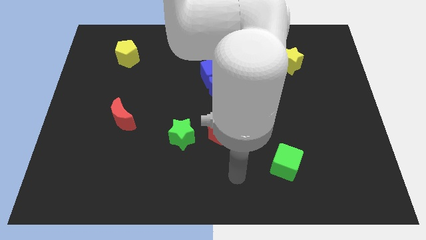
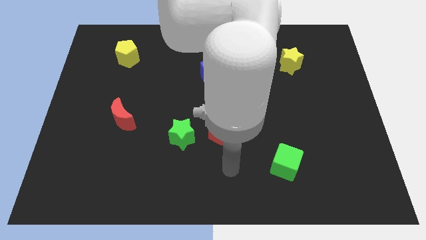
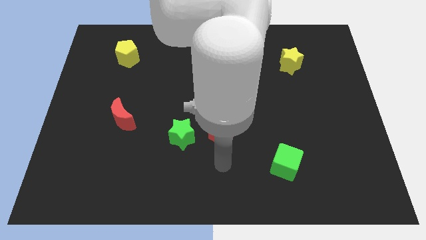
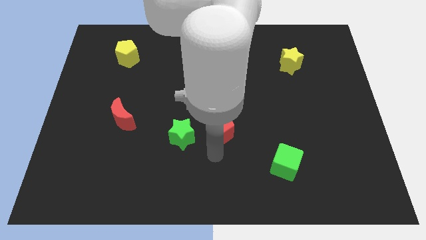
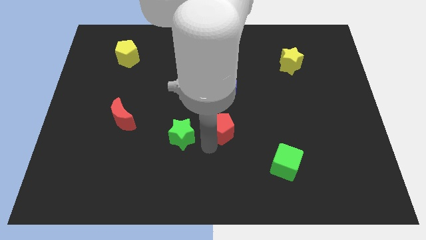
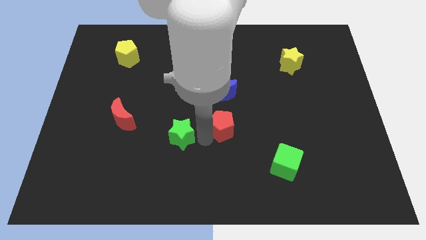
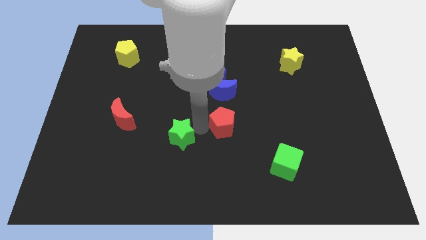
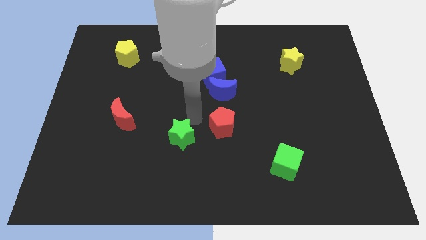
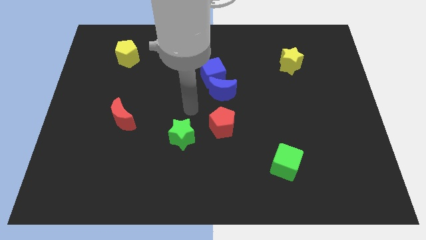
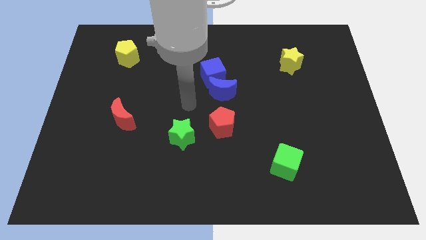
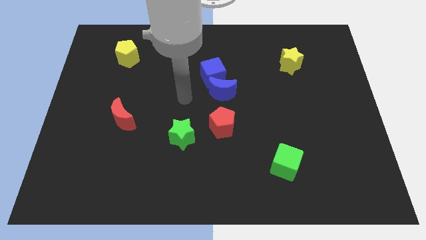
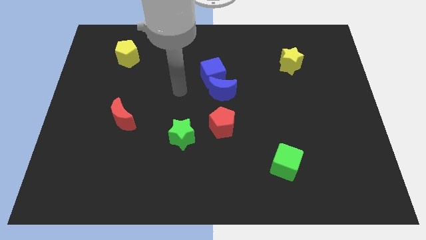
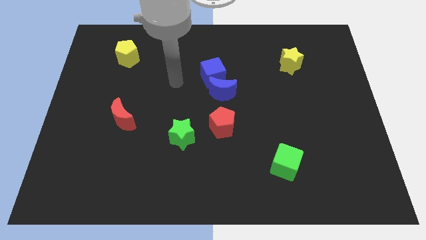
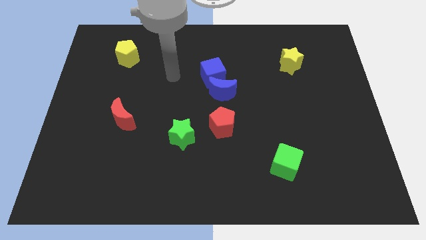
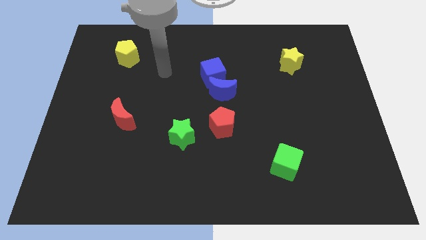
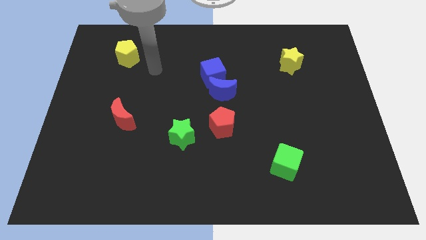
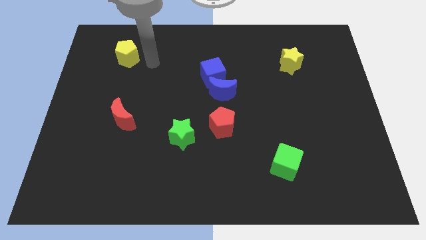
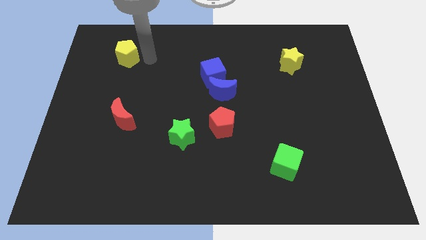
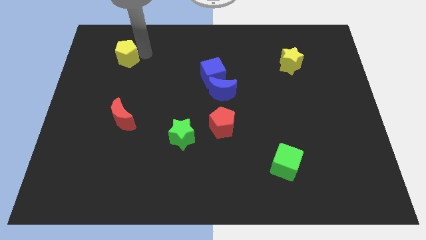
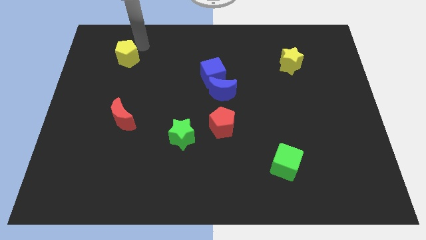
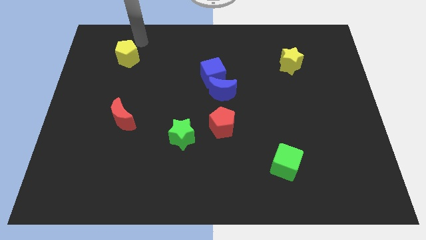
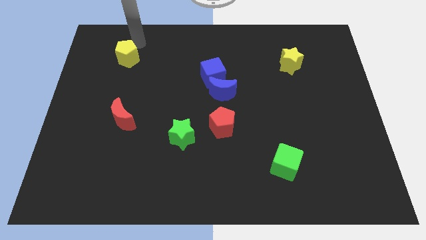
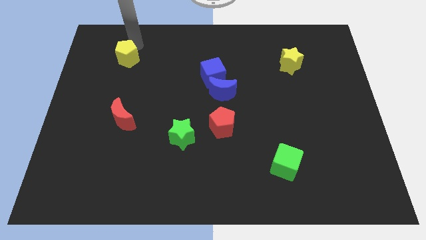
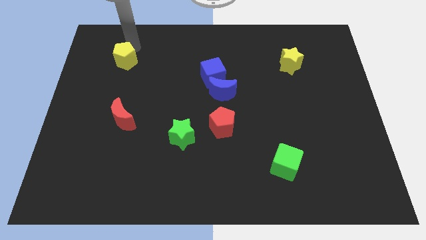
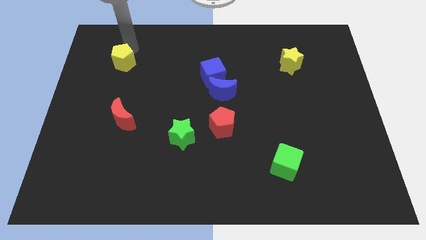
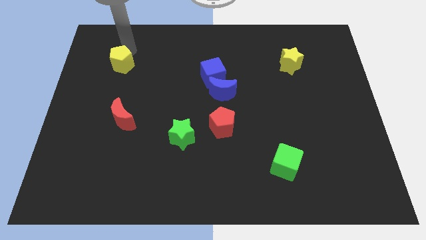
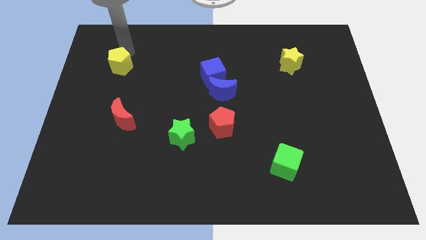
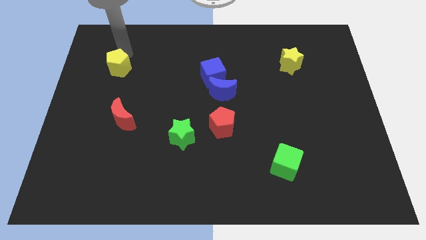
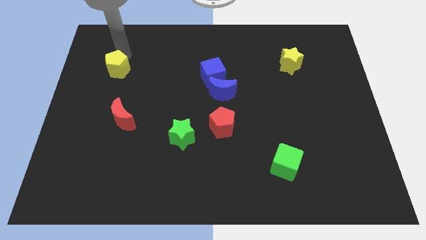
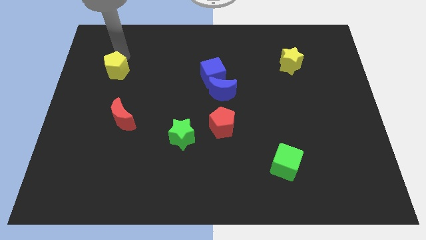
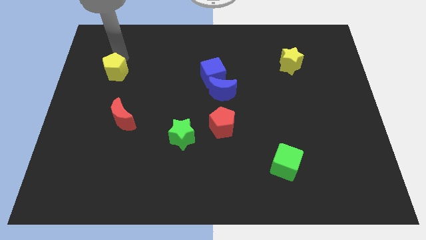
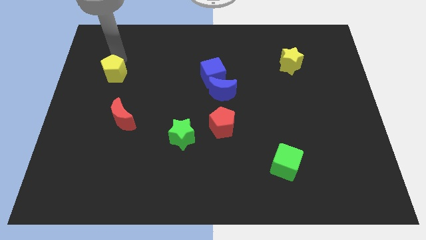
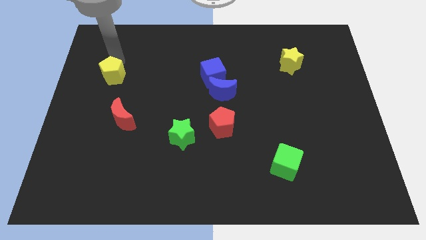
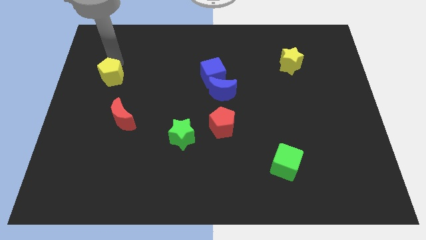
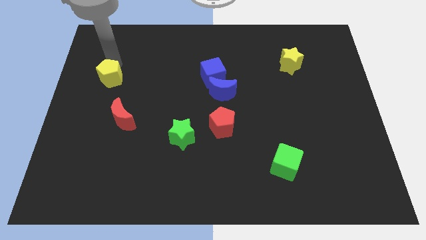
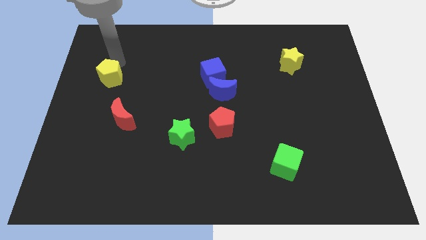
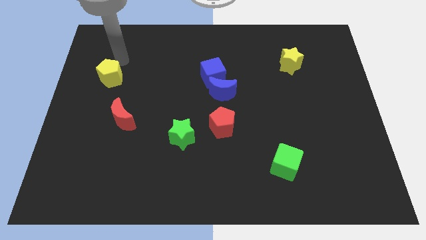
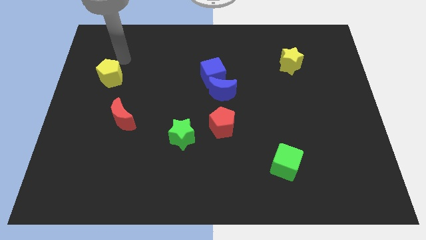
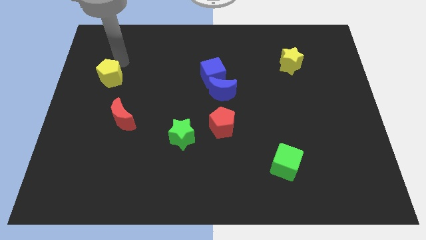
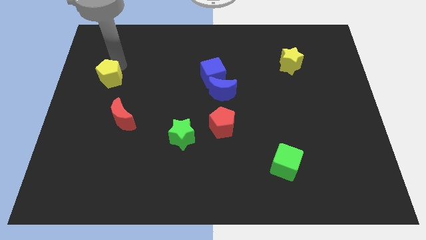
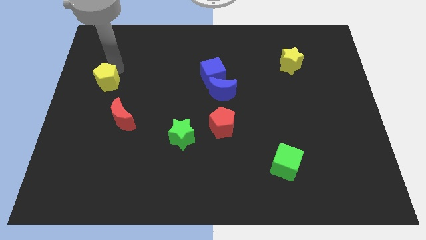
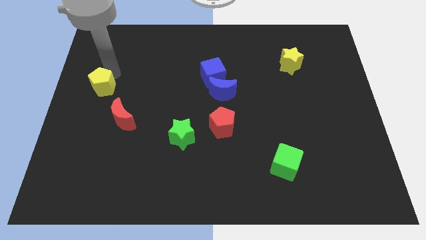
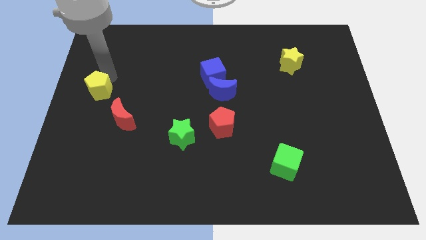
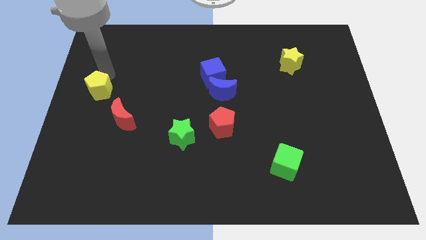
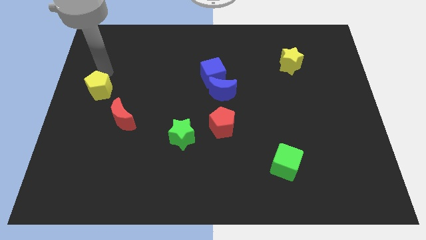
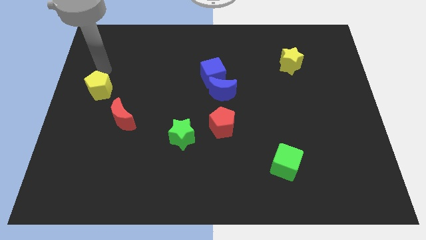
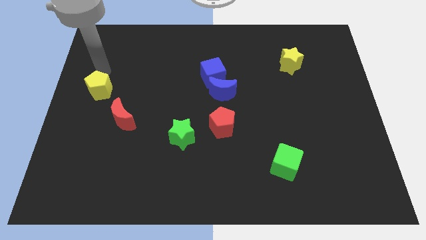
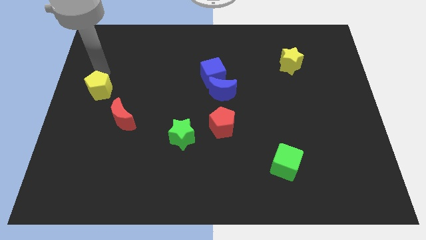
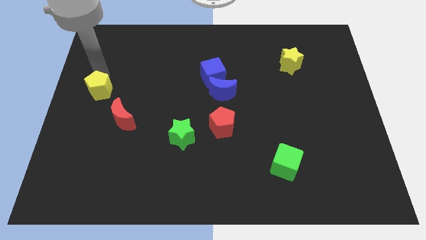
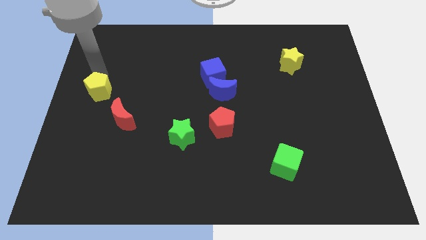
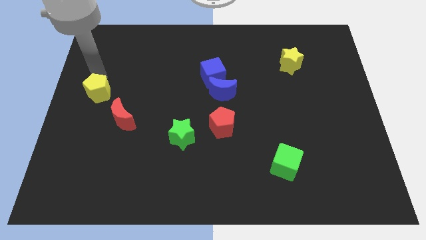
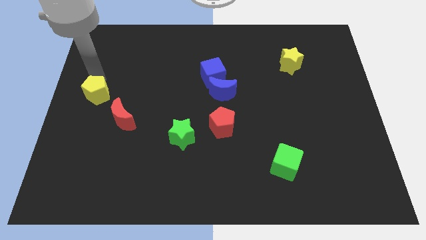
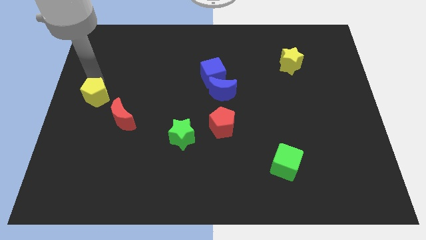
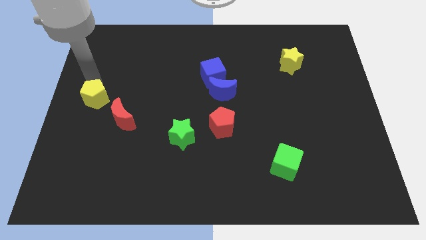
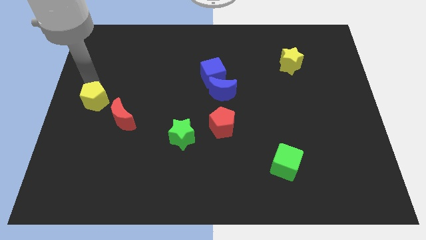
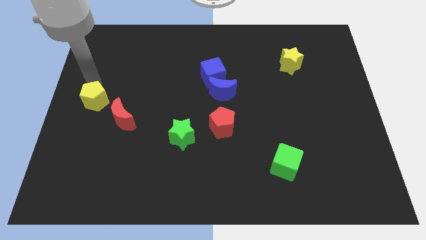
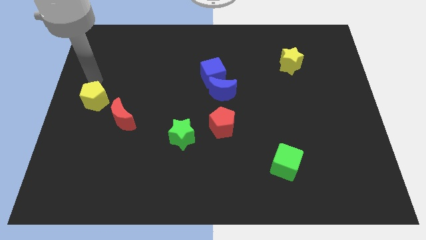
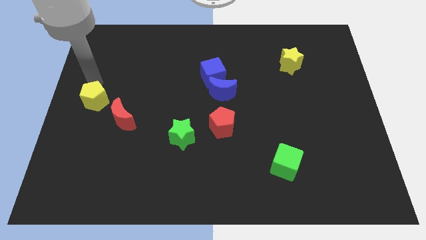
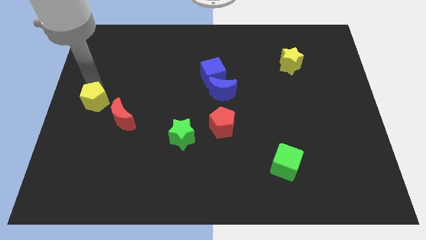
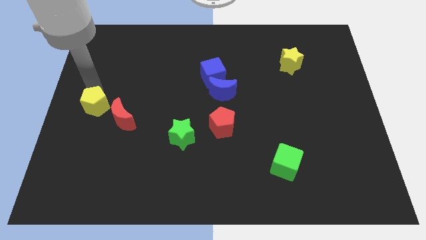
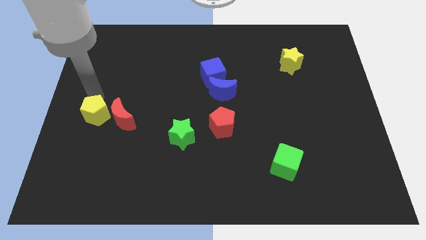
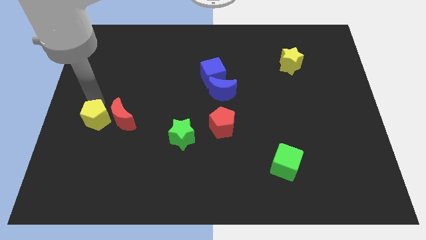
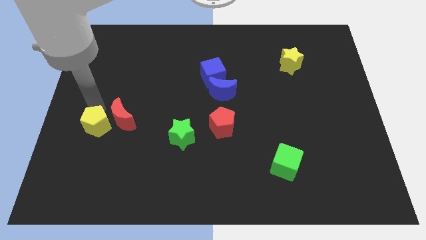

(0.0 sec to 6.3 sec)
slide the yellow pentagon downwards

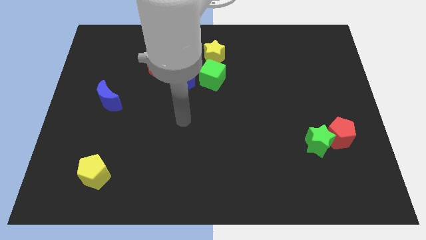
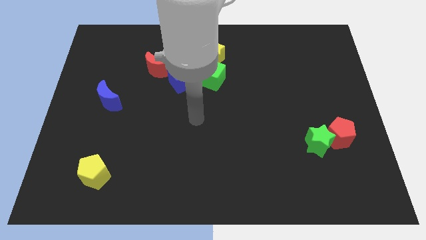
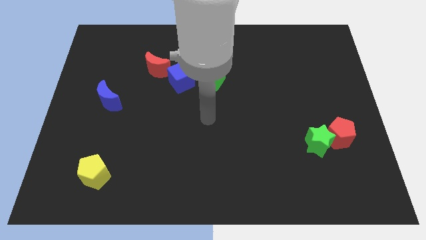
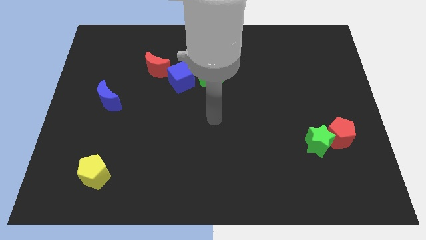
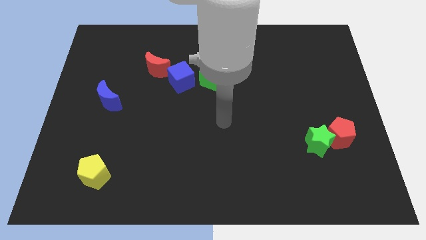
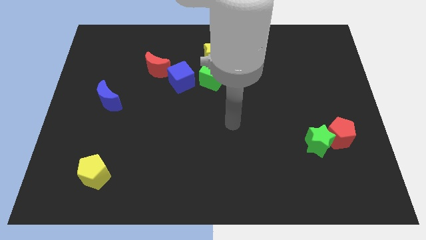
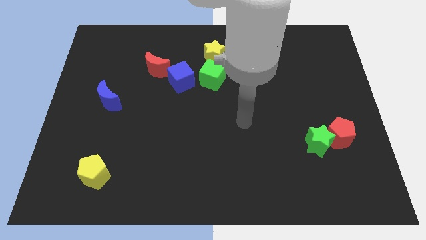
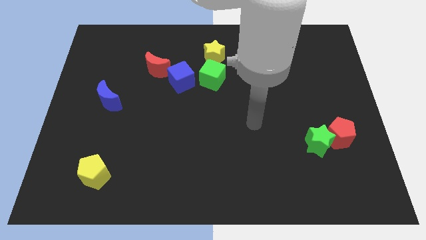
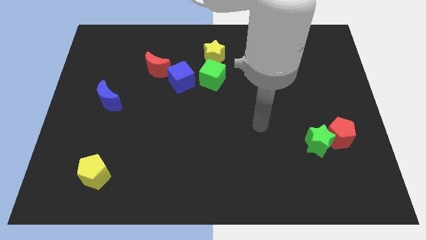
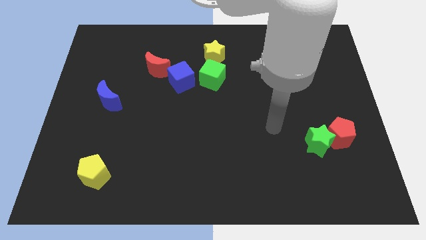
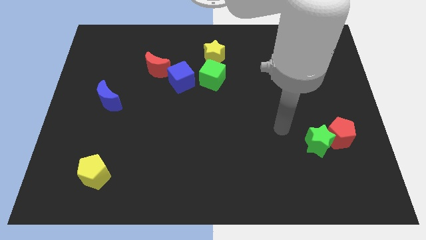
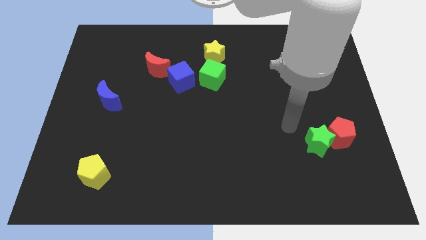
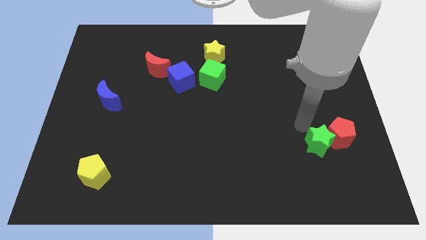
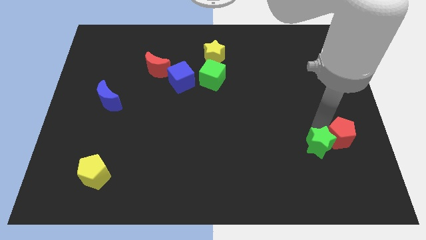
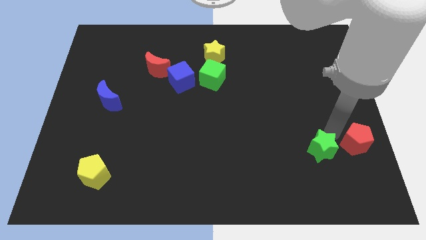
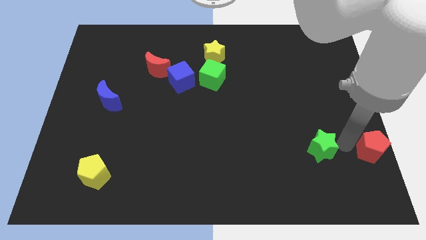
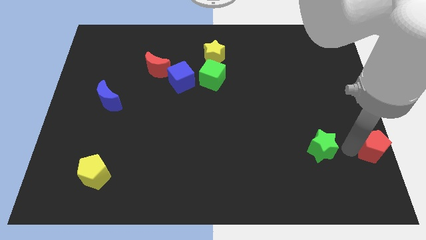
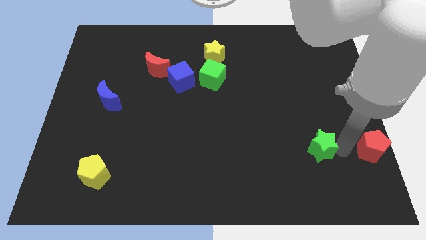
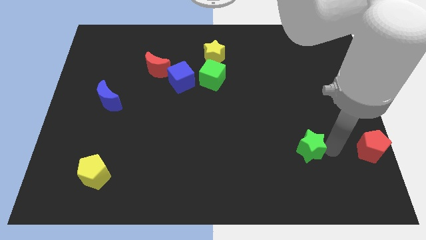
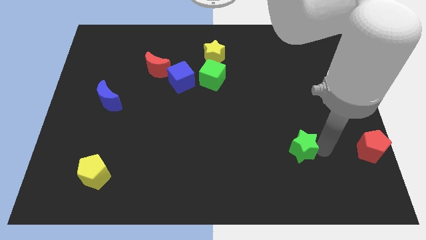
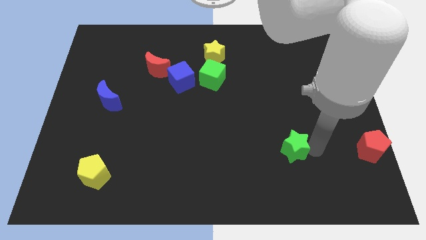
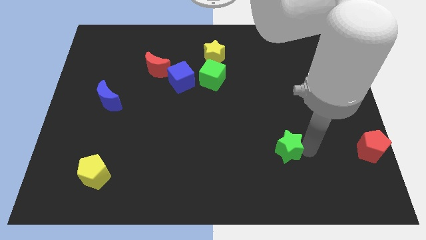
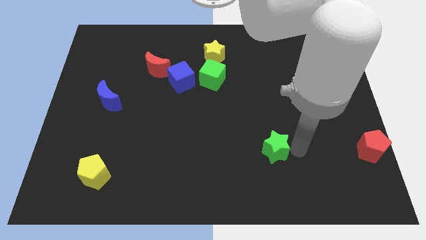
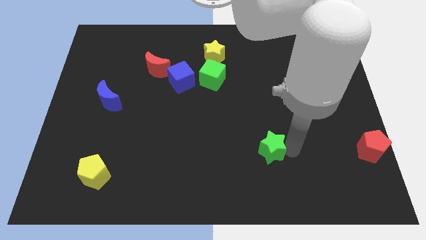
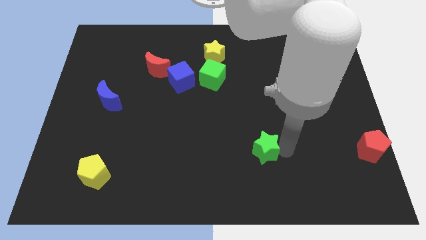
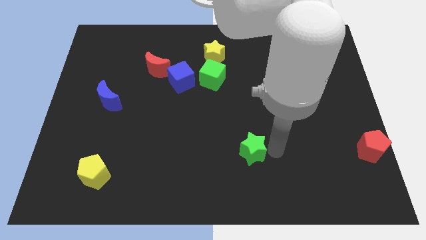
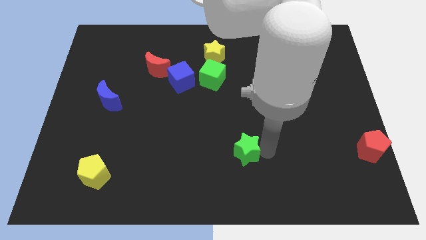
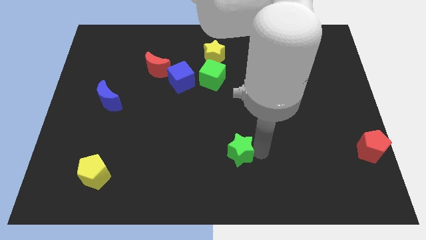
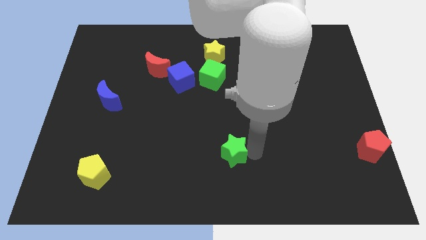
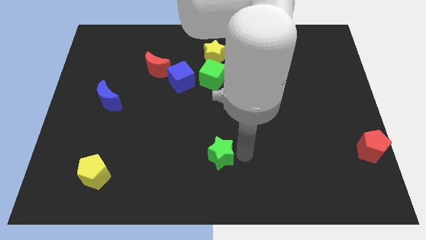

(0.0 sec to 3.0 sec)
move the green star left
